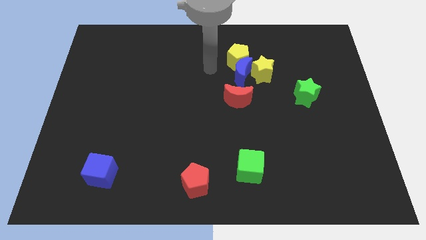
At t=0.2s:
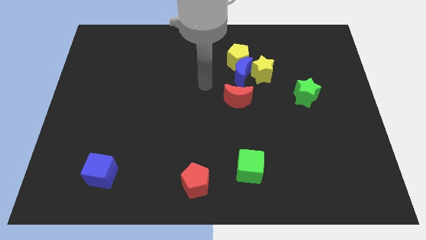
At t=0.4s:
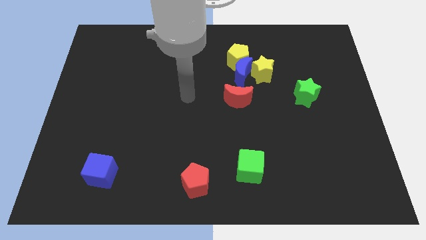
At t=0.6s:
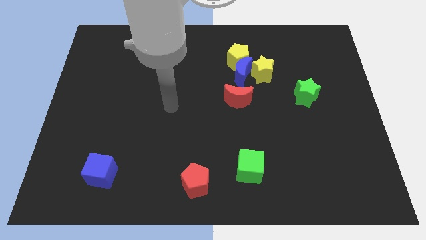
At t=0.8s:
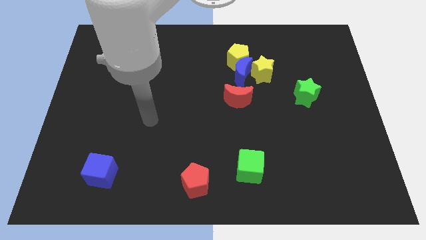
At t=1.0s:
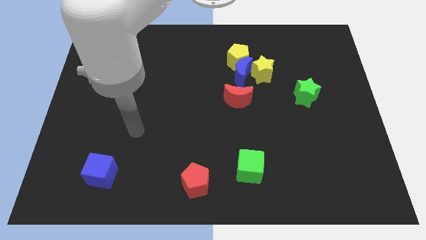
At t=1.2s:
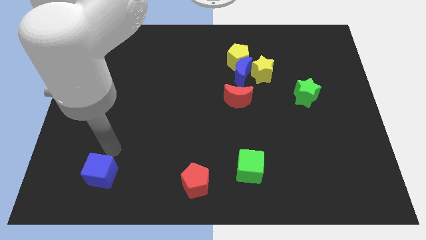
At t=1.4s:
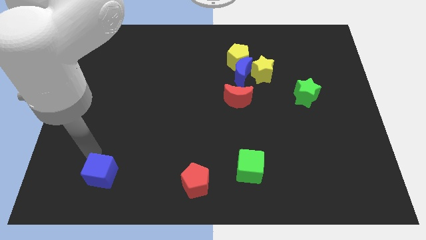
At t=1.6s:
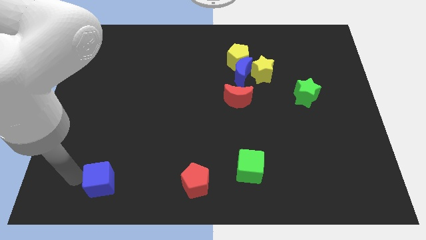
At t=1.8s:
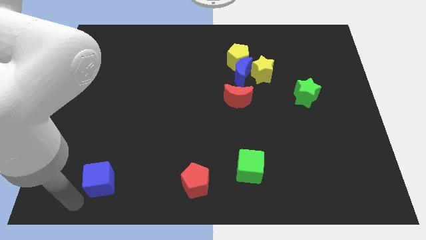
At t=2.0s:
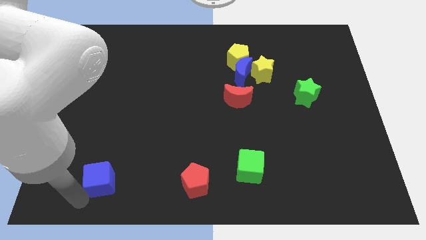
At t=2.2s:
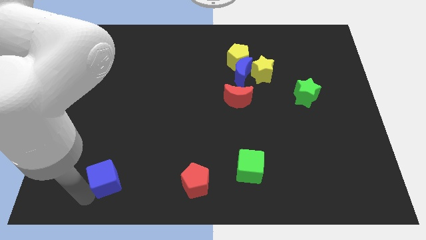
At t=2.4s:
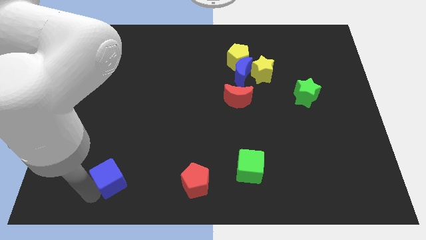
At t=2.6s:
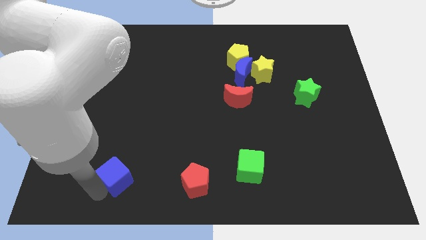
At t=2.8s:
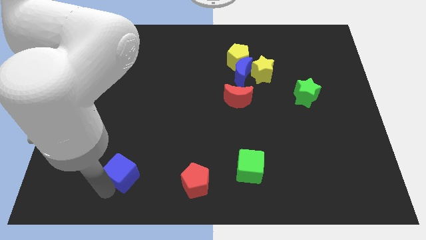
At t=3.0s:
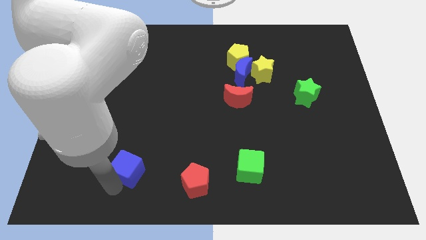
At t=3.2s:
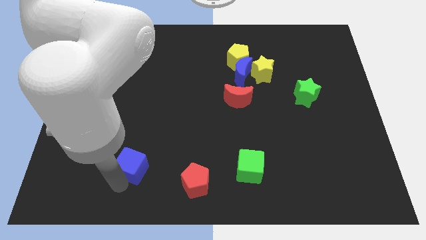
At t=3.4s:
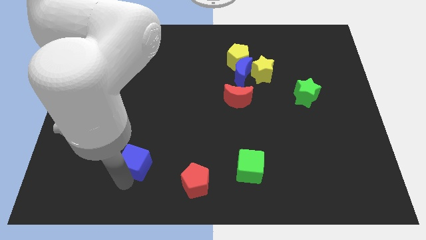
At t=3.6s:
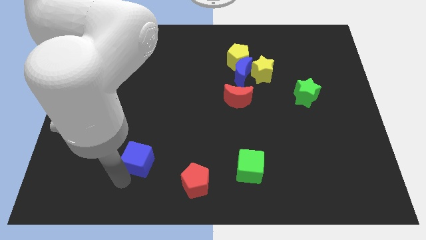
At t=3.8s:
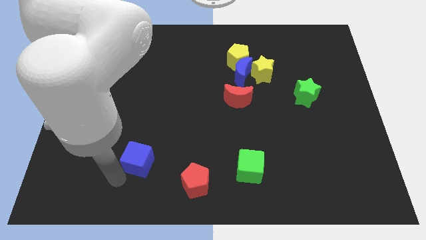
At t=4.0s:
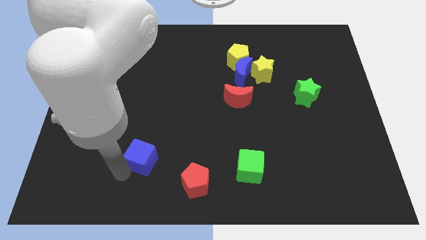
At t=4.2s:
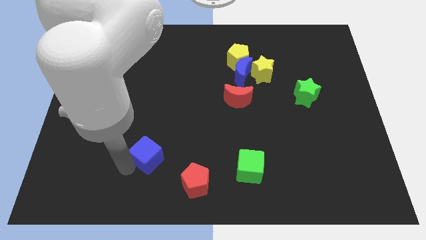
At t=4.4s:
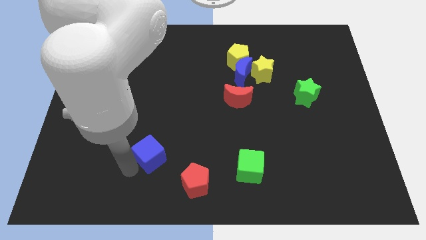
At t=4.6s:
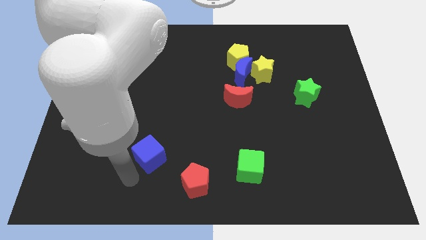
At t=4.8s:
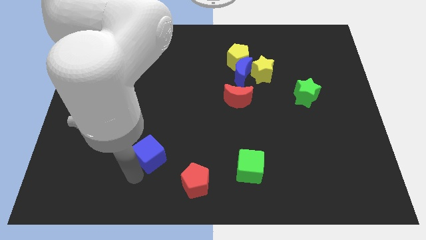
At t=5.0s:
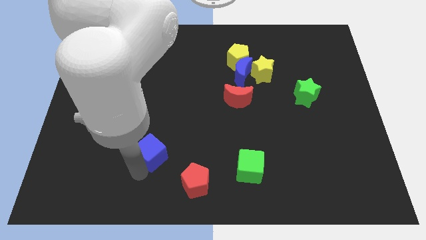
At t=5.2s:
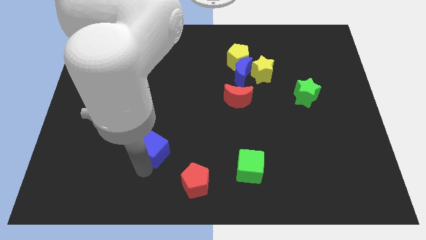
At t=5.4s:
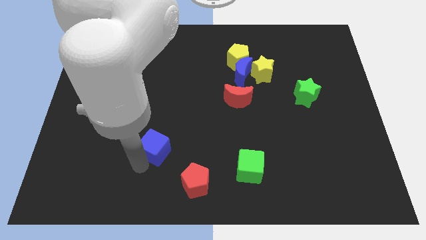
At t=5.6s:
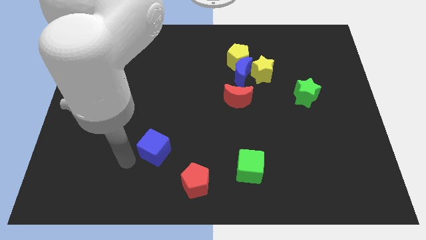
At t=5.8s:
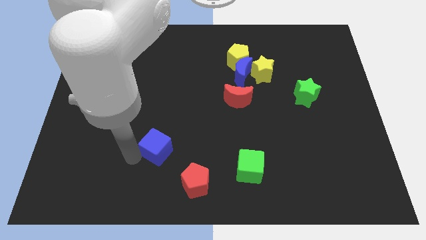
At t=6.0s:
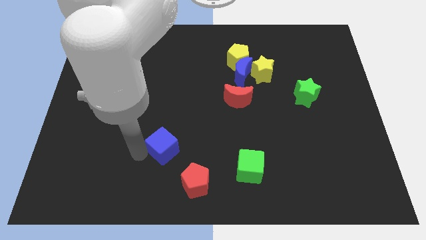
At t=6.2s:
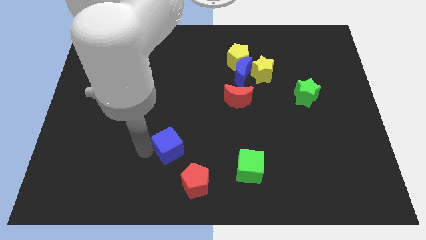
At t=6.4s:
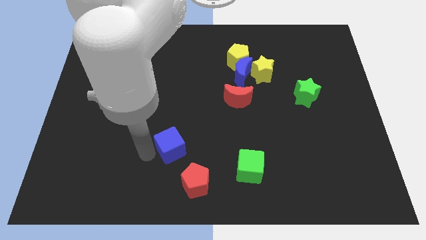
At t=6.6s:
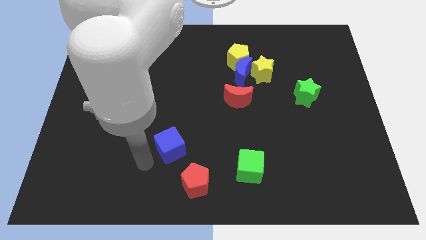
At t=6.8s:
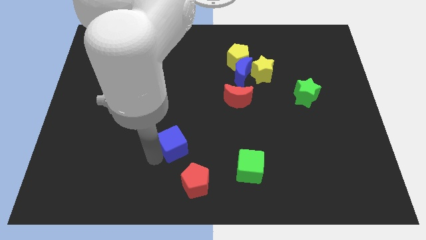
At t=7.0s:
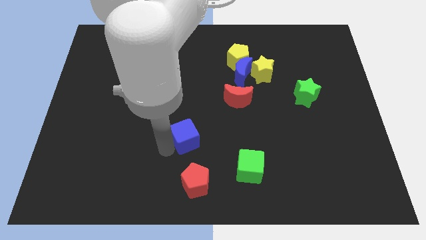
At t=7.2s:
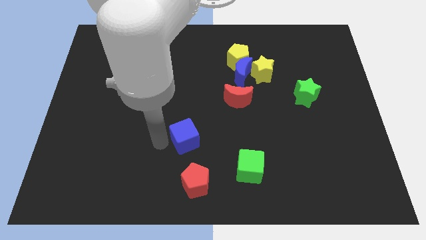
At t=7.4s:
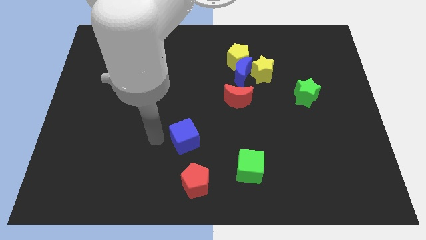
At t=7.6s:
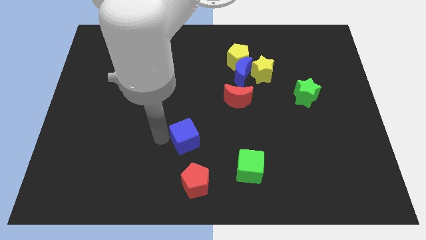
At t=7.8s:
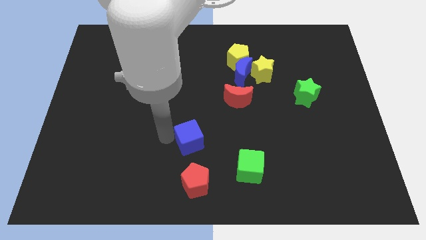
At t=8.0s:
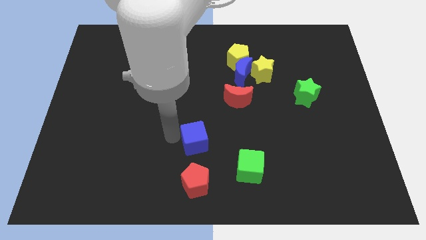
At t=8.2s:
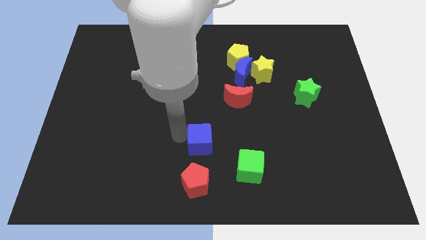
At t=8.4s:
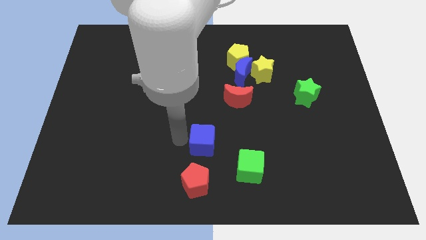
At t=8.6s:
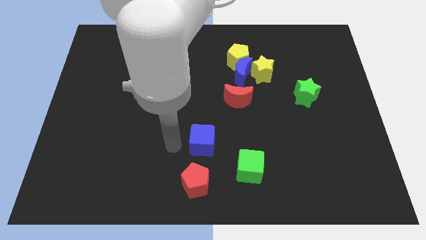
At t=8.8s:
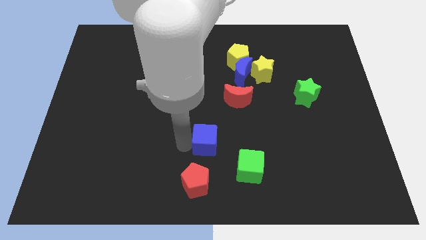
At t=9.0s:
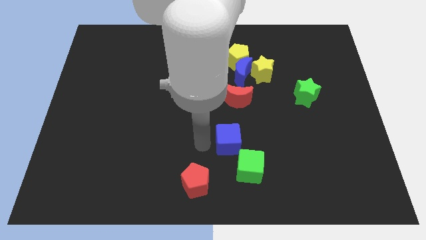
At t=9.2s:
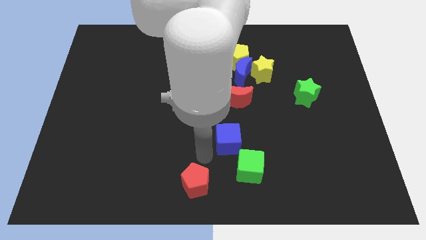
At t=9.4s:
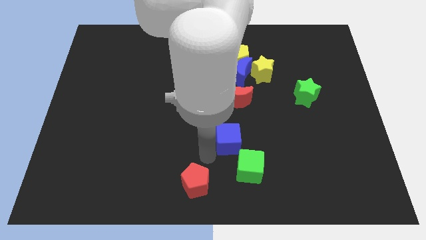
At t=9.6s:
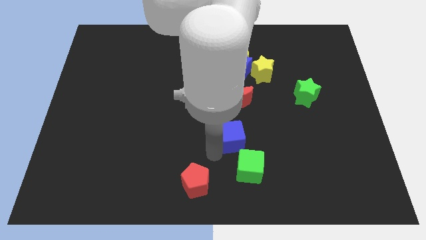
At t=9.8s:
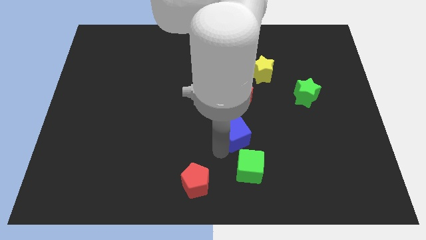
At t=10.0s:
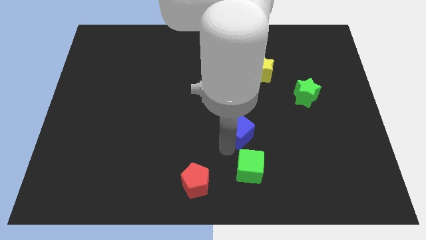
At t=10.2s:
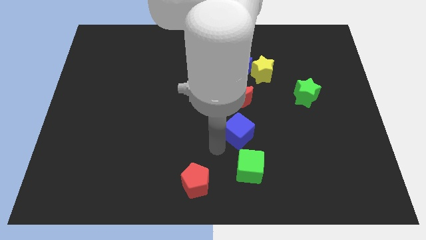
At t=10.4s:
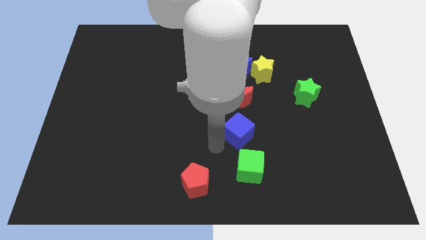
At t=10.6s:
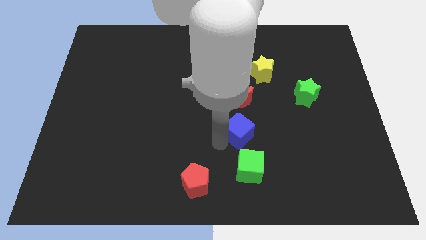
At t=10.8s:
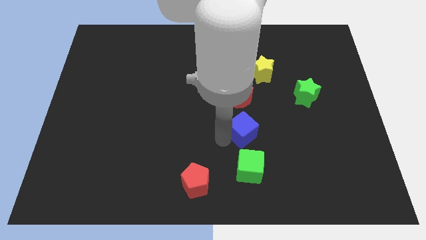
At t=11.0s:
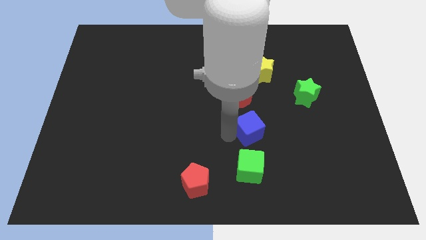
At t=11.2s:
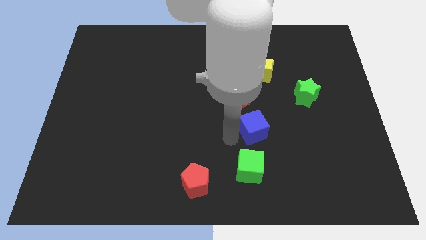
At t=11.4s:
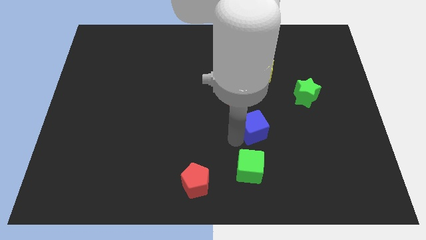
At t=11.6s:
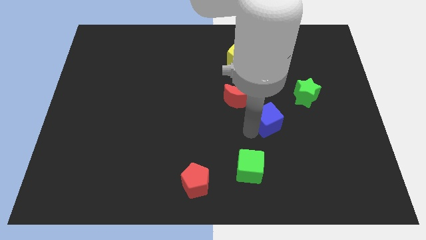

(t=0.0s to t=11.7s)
move the blue cube diagonally down and to the left of the green star

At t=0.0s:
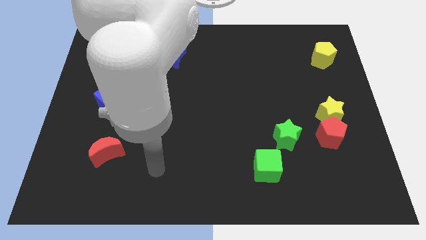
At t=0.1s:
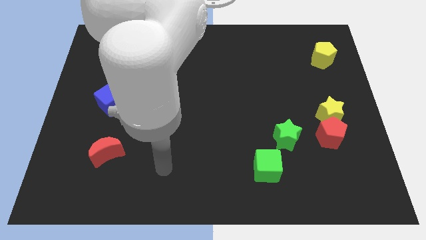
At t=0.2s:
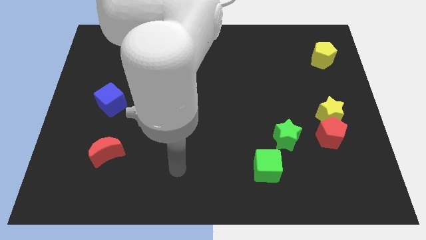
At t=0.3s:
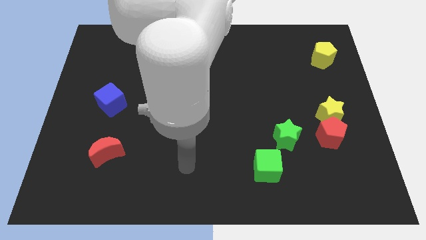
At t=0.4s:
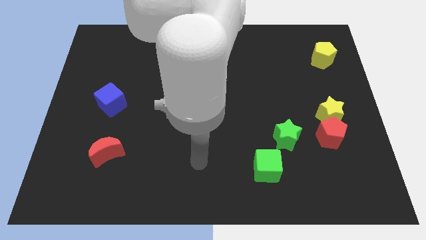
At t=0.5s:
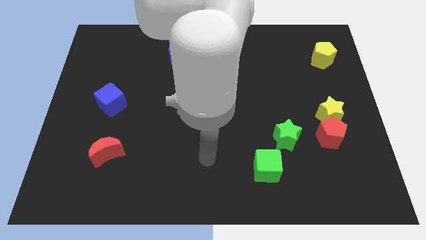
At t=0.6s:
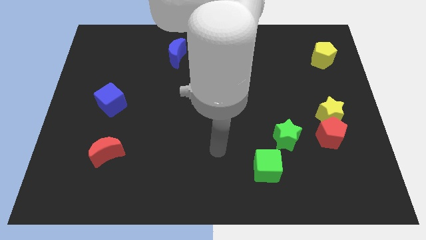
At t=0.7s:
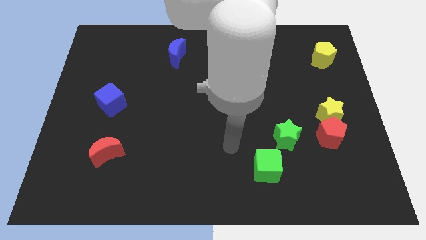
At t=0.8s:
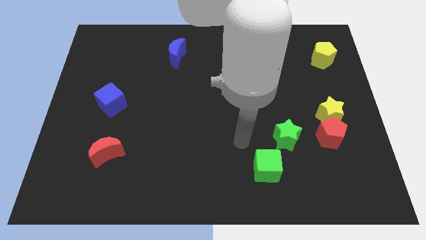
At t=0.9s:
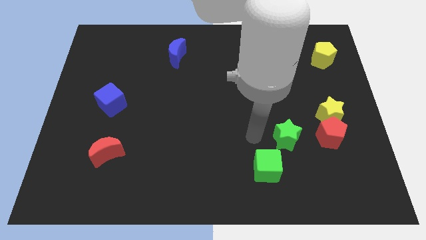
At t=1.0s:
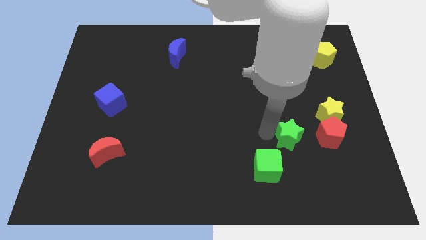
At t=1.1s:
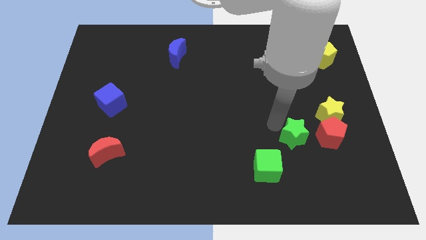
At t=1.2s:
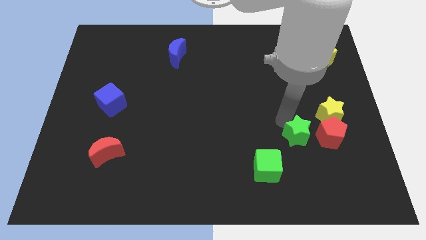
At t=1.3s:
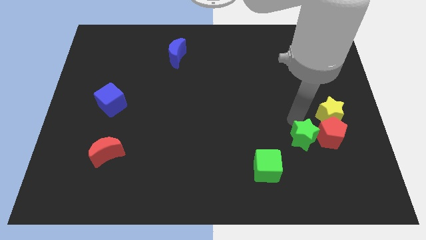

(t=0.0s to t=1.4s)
slide the red pentagon to the bottom right side of the green star

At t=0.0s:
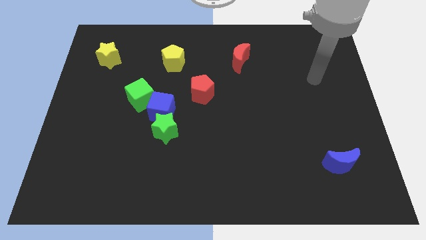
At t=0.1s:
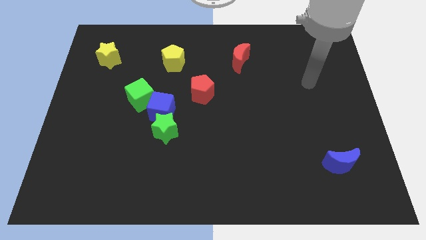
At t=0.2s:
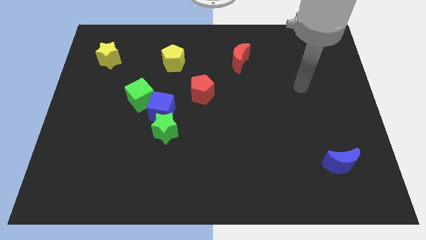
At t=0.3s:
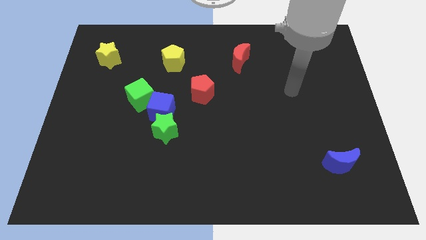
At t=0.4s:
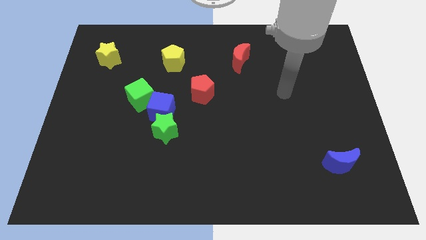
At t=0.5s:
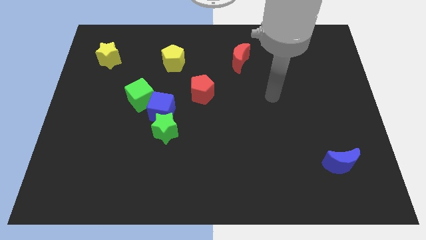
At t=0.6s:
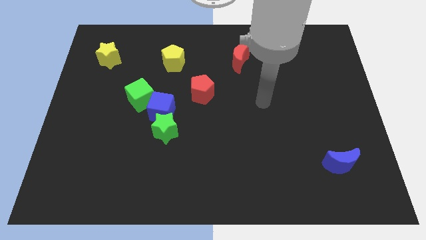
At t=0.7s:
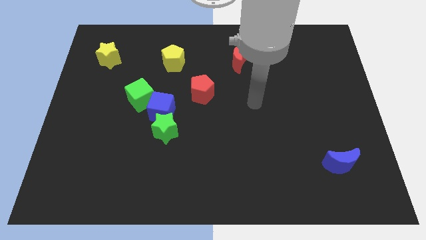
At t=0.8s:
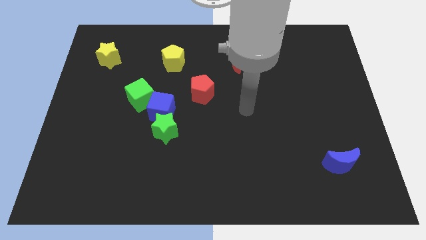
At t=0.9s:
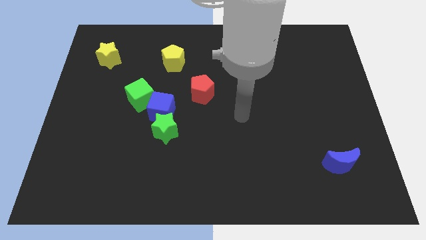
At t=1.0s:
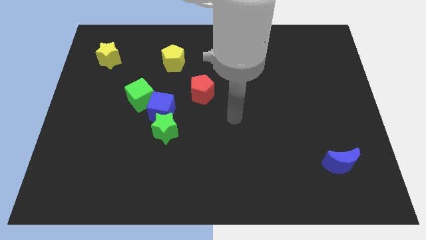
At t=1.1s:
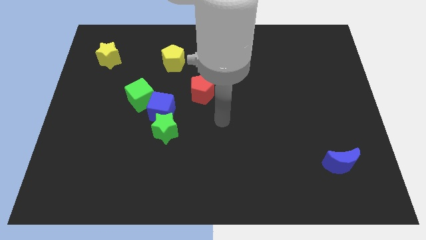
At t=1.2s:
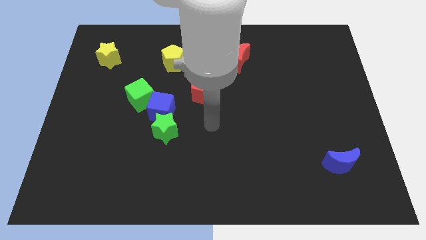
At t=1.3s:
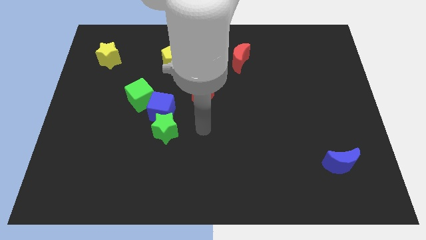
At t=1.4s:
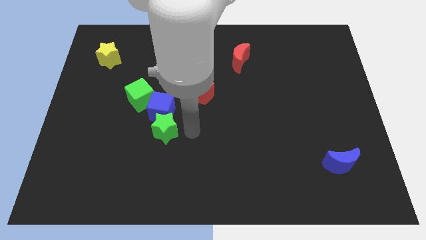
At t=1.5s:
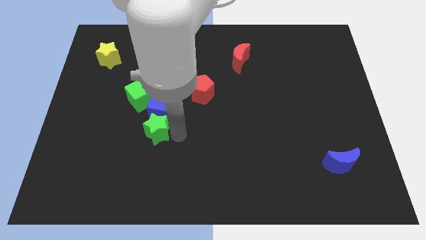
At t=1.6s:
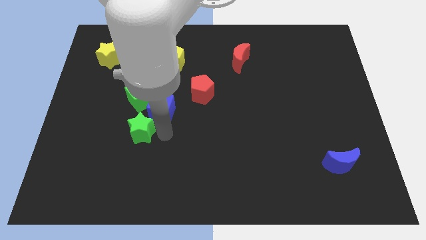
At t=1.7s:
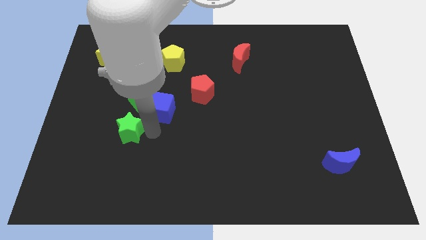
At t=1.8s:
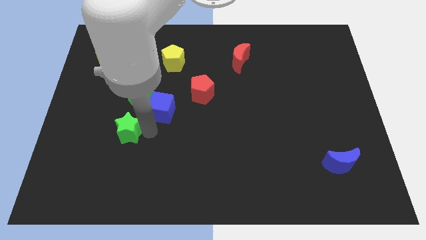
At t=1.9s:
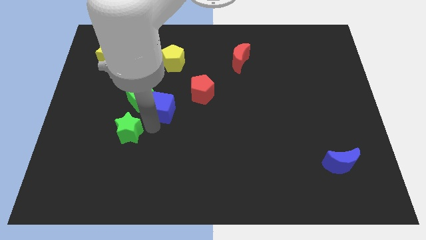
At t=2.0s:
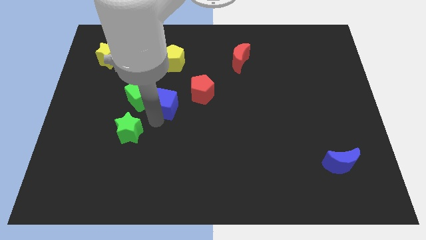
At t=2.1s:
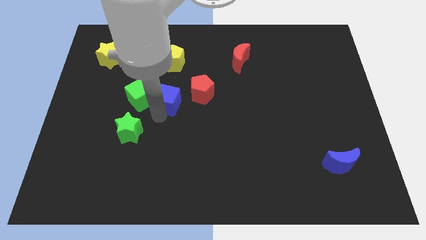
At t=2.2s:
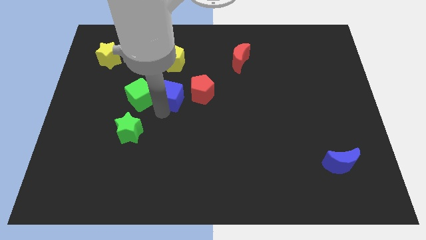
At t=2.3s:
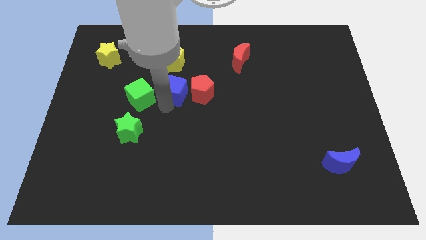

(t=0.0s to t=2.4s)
slide the blue cube diagonally up and to the left of the red pentagon
